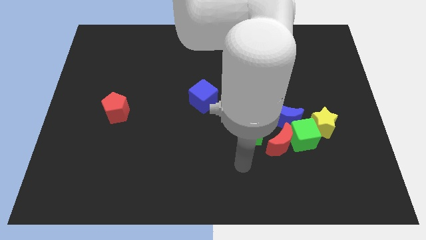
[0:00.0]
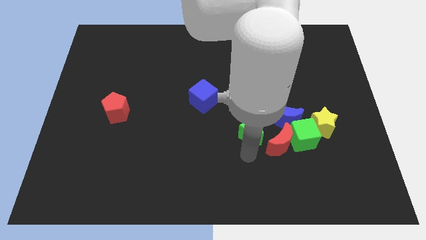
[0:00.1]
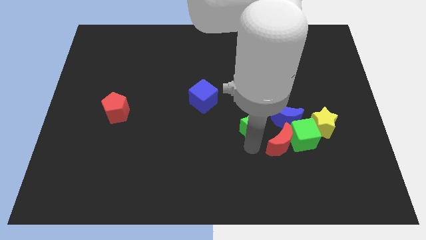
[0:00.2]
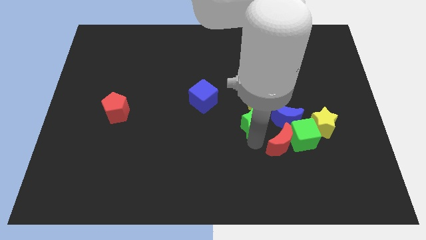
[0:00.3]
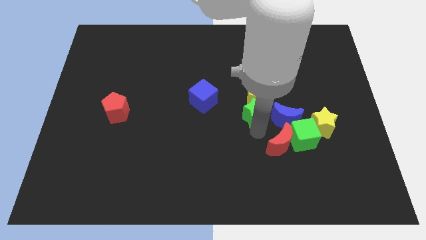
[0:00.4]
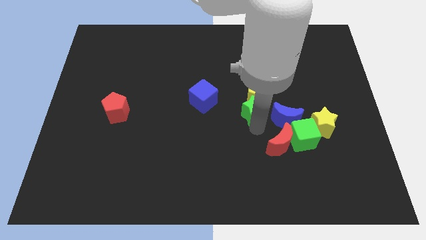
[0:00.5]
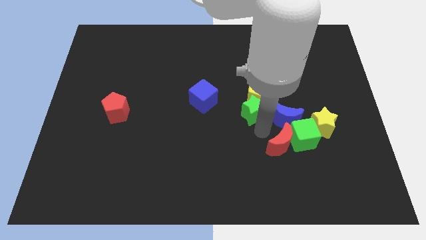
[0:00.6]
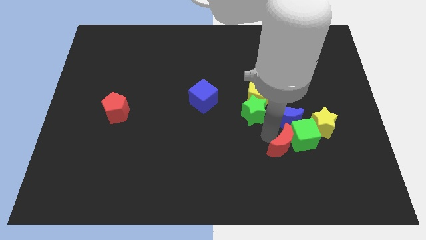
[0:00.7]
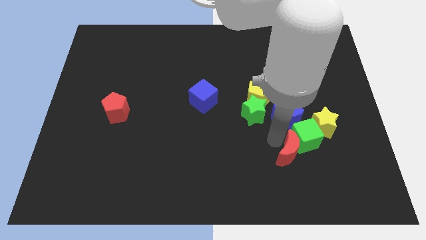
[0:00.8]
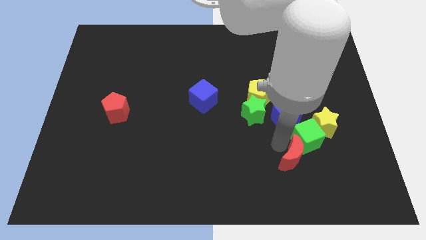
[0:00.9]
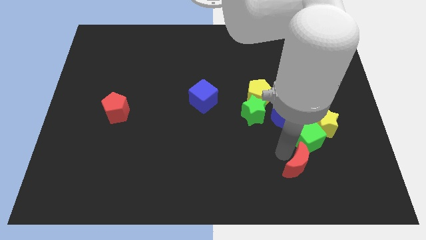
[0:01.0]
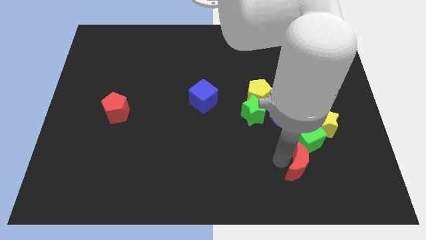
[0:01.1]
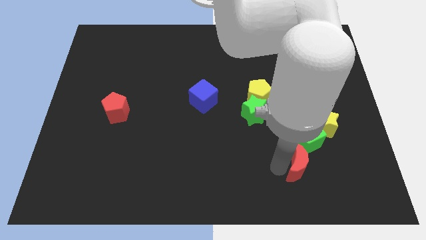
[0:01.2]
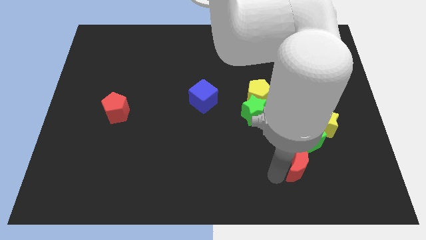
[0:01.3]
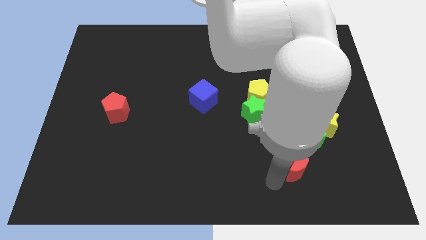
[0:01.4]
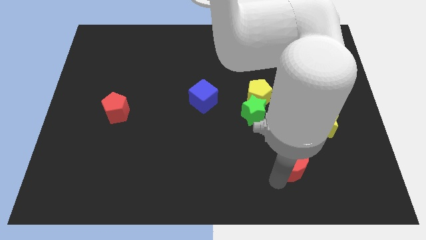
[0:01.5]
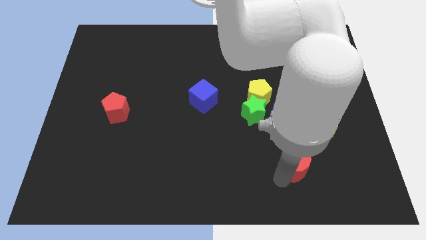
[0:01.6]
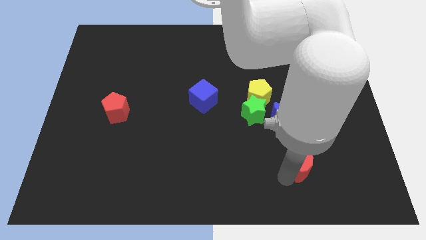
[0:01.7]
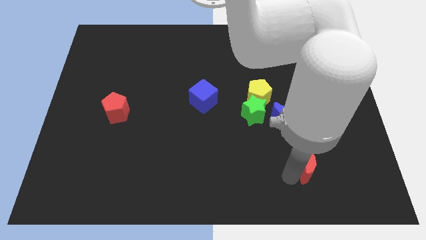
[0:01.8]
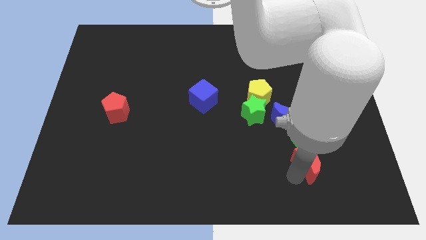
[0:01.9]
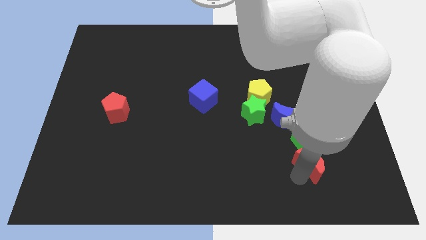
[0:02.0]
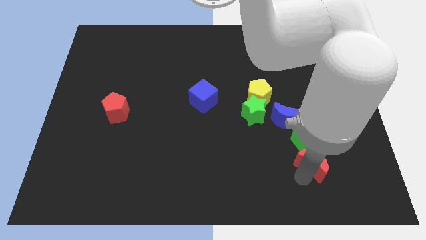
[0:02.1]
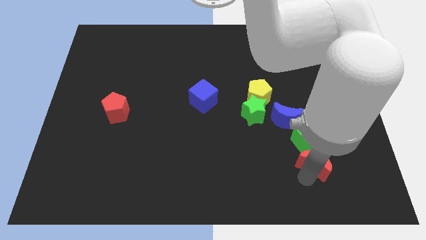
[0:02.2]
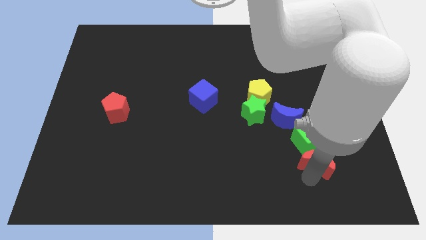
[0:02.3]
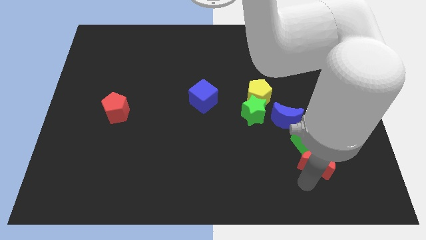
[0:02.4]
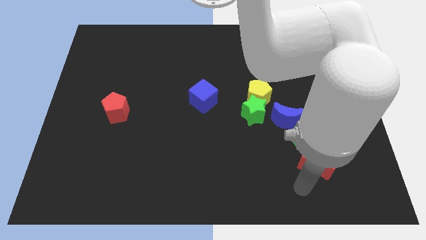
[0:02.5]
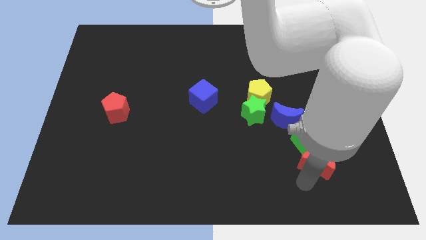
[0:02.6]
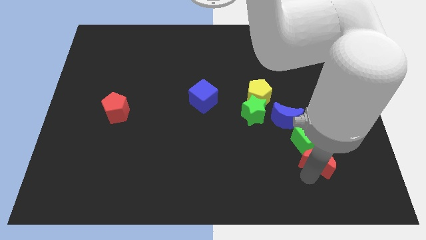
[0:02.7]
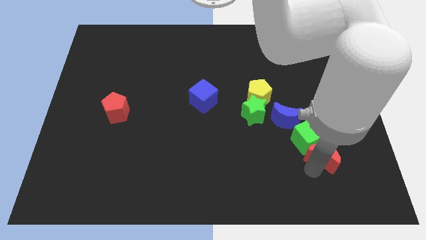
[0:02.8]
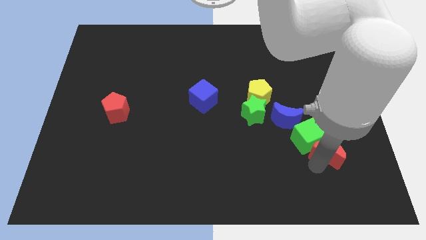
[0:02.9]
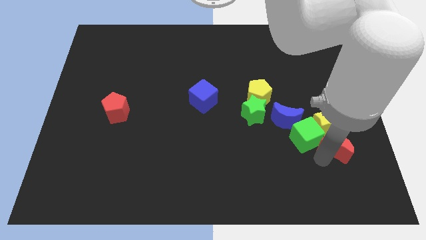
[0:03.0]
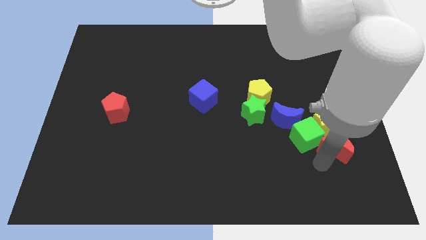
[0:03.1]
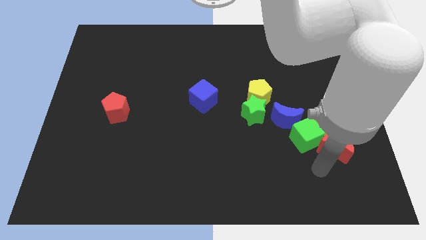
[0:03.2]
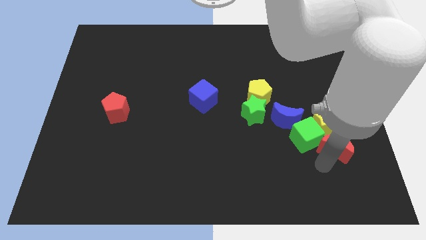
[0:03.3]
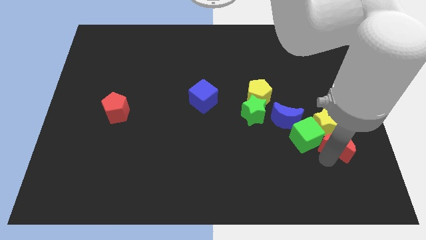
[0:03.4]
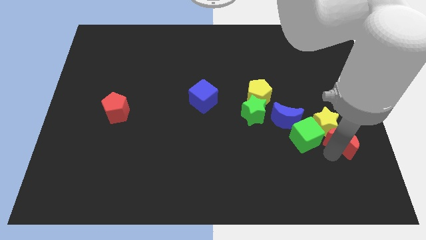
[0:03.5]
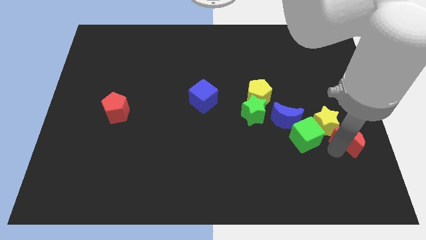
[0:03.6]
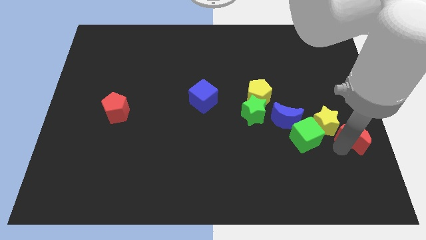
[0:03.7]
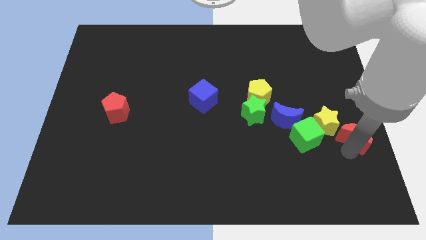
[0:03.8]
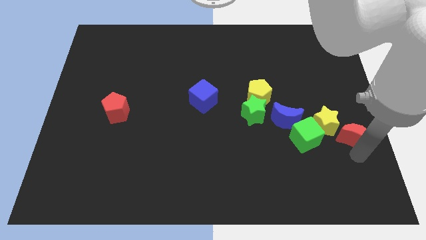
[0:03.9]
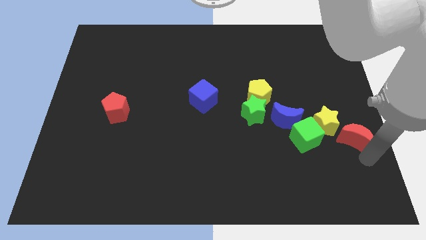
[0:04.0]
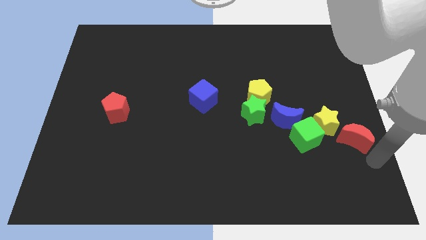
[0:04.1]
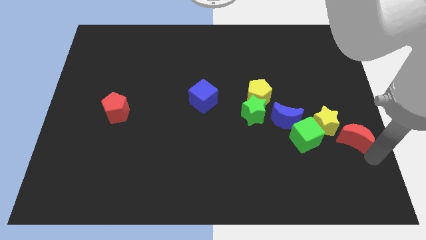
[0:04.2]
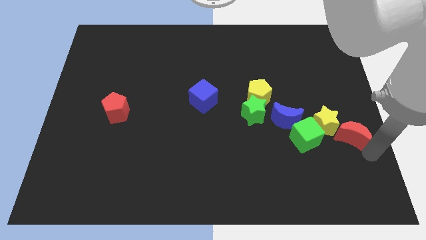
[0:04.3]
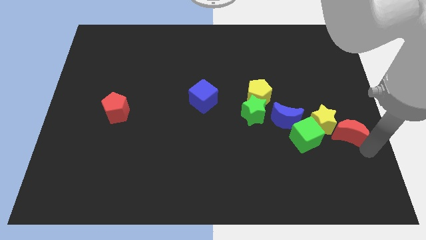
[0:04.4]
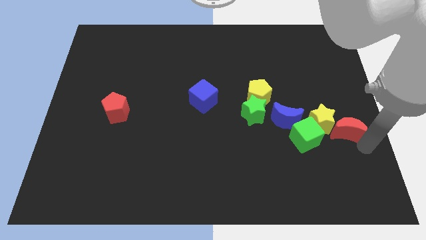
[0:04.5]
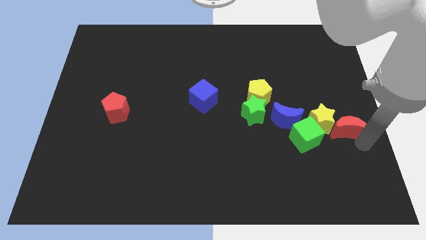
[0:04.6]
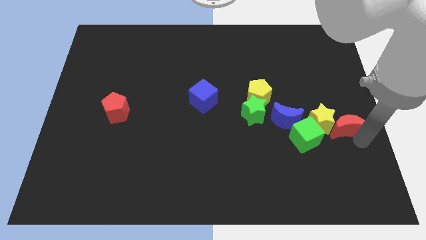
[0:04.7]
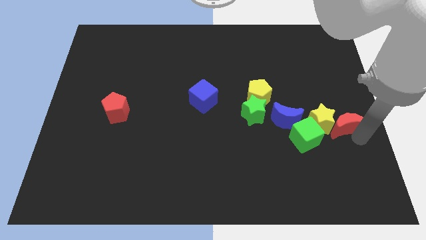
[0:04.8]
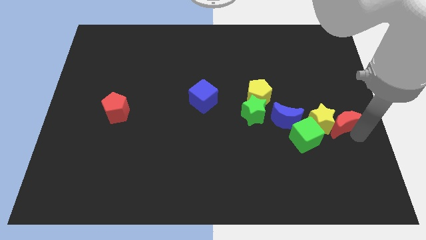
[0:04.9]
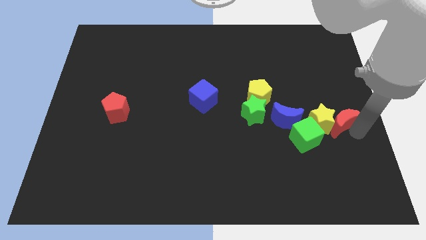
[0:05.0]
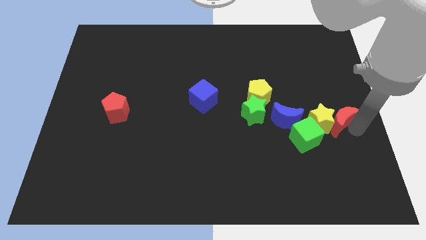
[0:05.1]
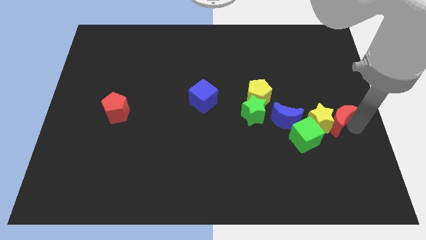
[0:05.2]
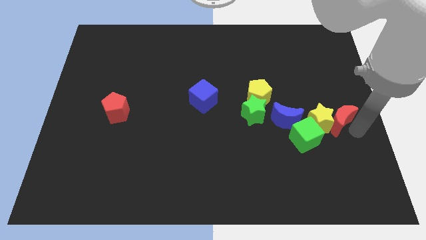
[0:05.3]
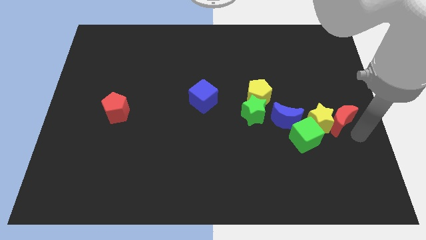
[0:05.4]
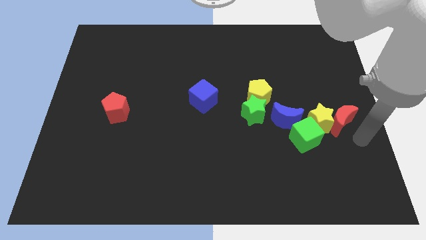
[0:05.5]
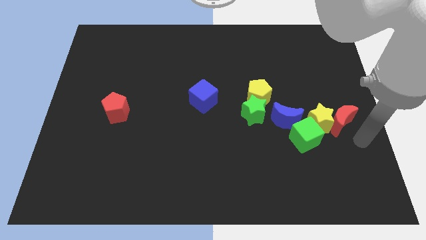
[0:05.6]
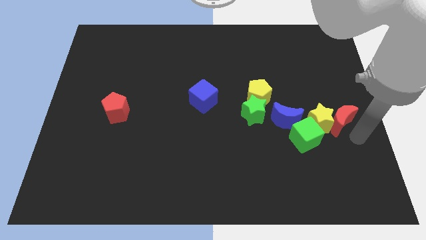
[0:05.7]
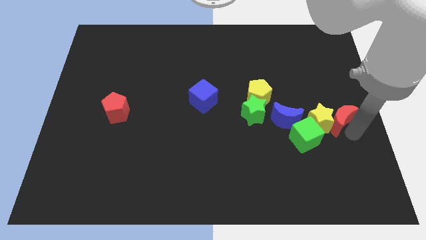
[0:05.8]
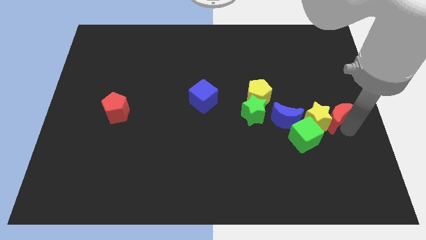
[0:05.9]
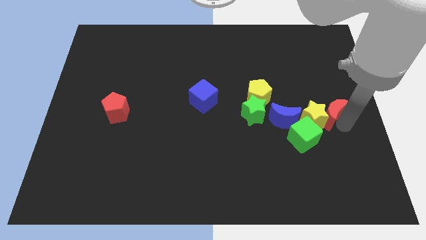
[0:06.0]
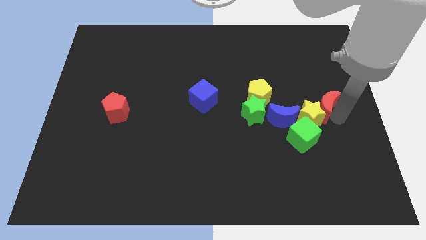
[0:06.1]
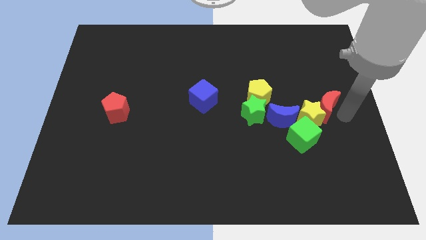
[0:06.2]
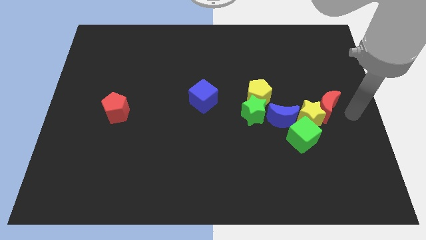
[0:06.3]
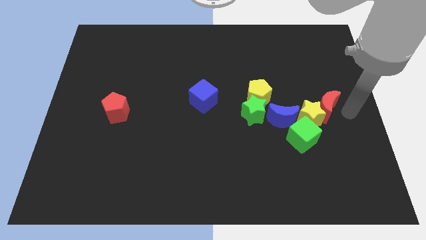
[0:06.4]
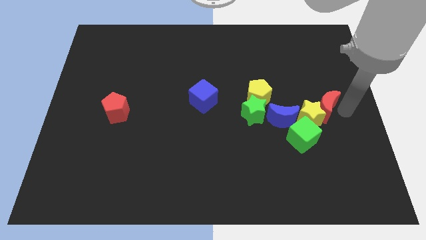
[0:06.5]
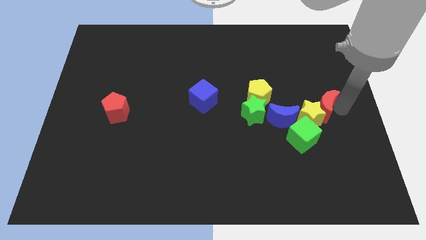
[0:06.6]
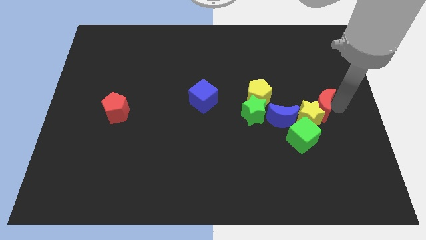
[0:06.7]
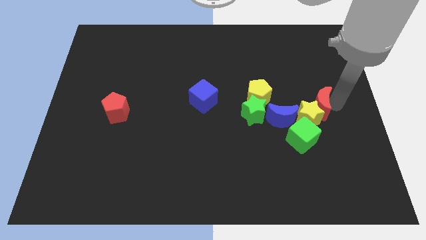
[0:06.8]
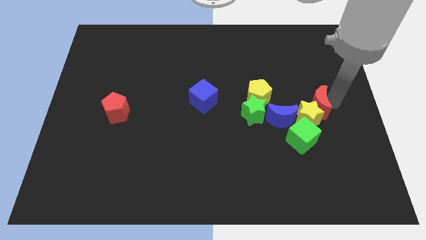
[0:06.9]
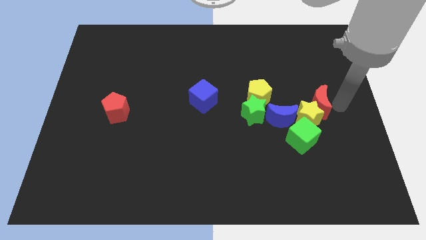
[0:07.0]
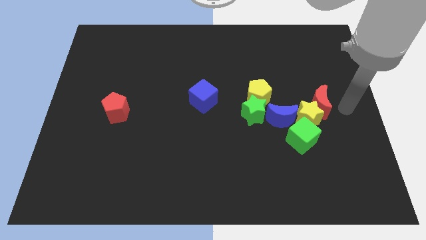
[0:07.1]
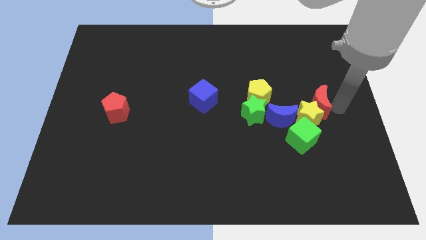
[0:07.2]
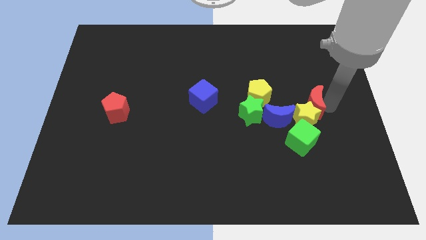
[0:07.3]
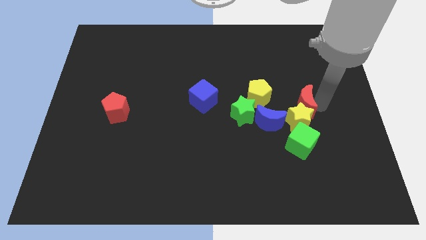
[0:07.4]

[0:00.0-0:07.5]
push the red moon to the top left side of the yellow star
